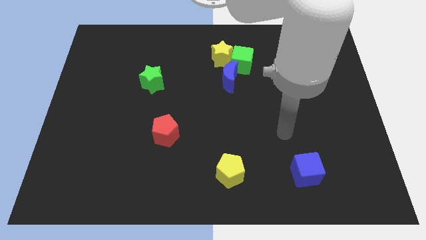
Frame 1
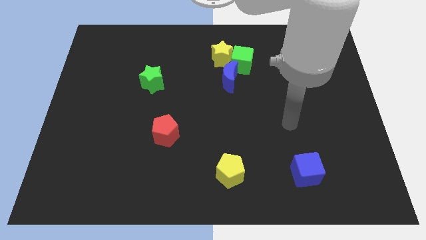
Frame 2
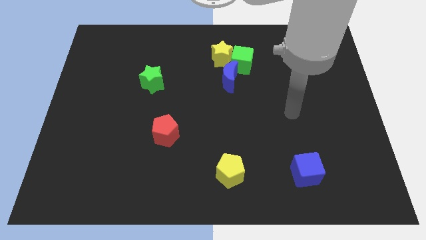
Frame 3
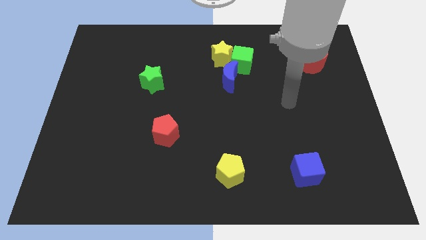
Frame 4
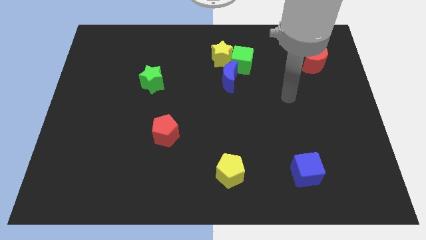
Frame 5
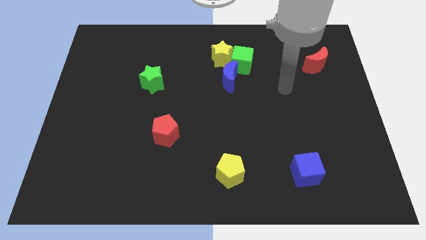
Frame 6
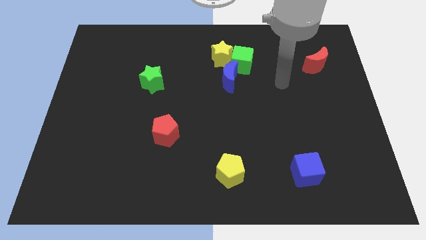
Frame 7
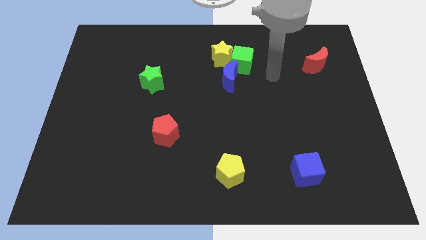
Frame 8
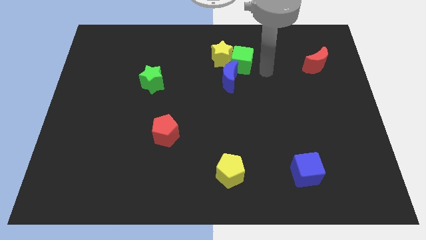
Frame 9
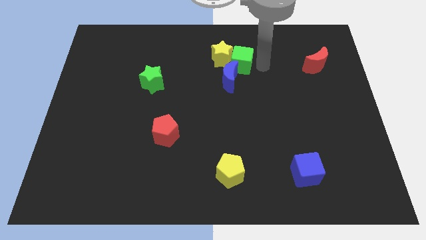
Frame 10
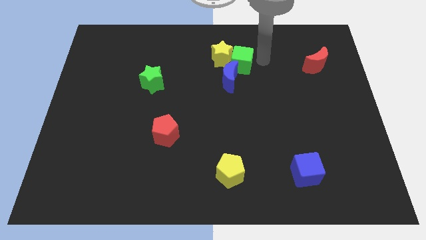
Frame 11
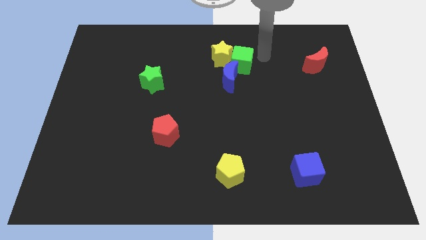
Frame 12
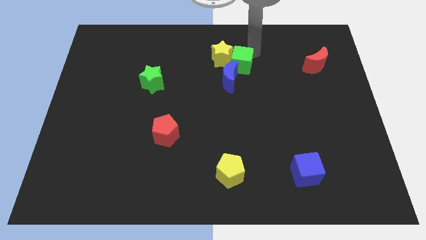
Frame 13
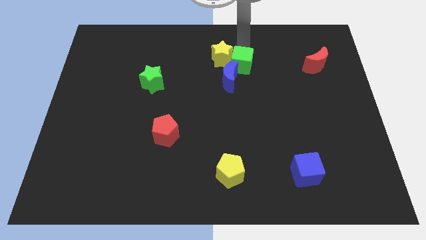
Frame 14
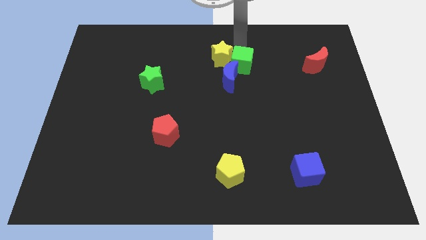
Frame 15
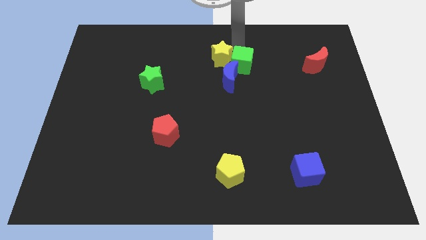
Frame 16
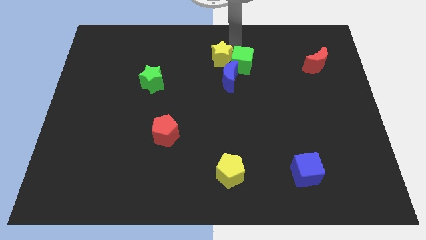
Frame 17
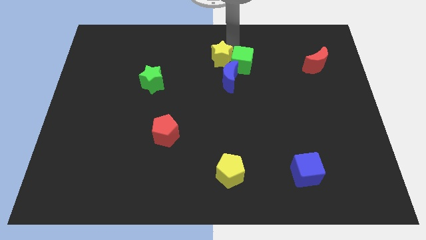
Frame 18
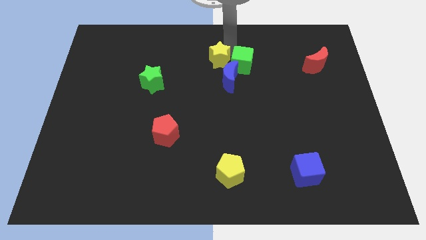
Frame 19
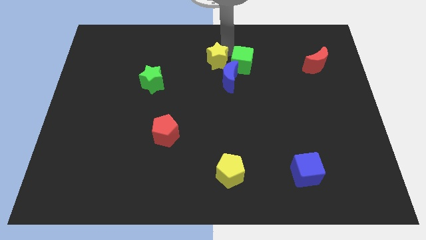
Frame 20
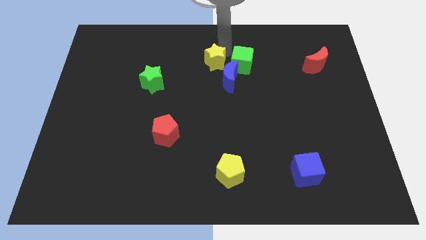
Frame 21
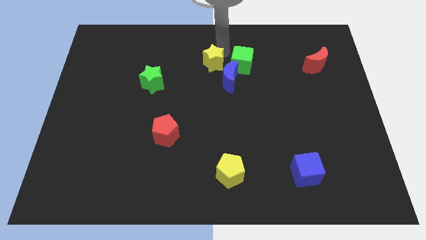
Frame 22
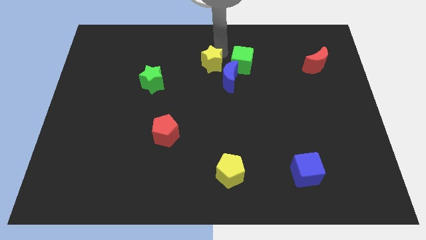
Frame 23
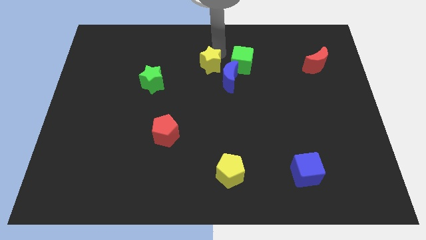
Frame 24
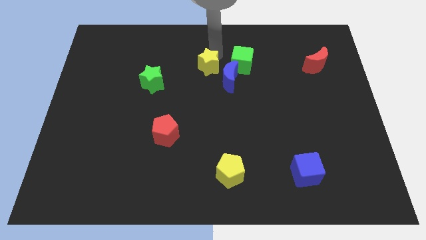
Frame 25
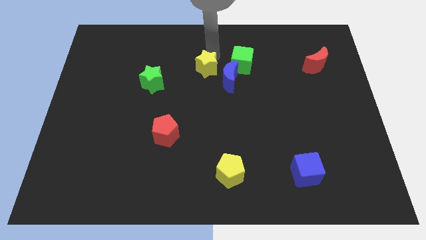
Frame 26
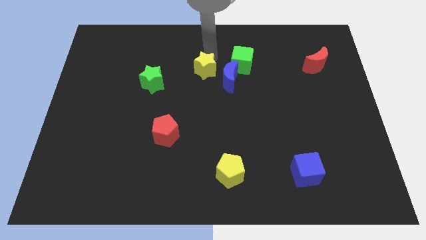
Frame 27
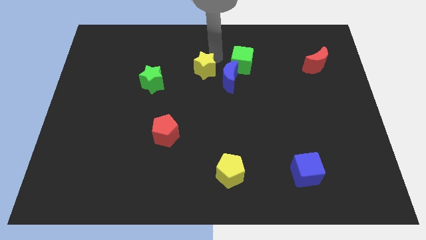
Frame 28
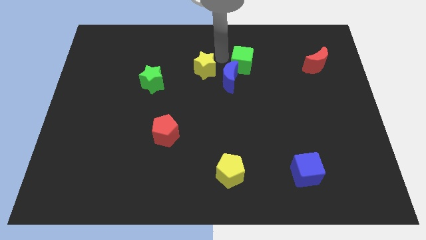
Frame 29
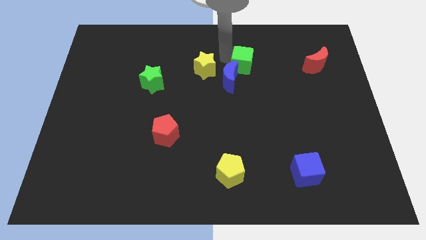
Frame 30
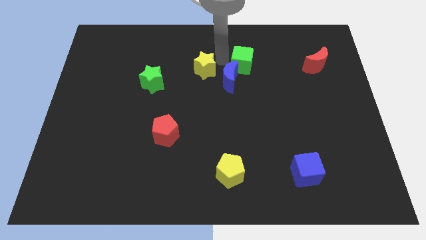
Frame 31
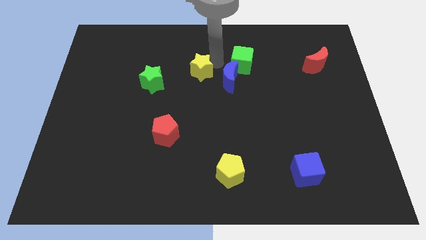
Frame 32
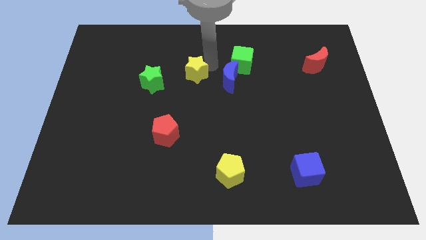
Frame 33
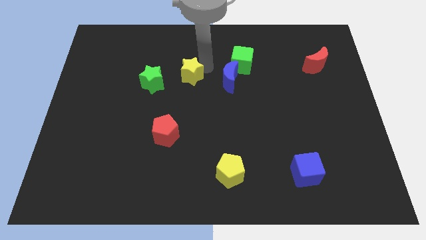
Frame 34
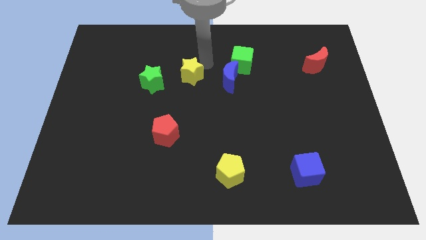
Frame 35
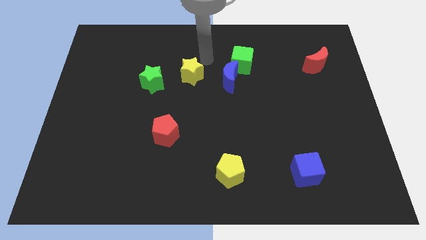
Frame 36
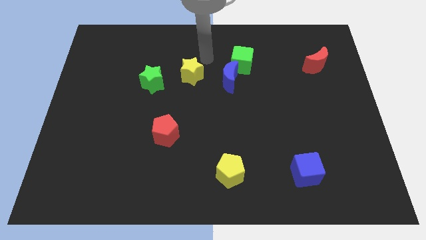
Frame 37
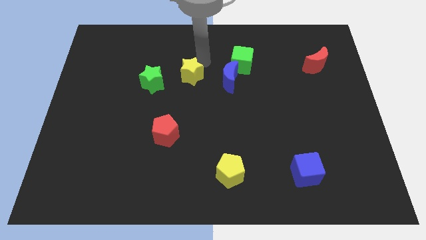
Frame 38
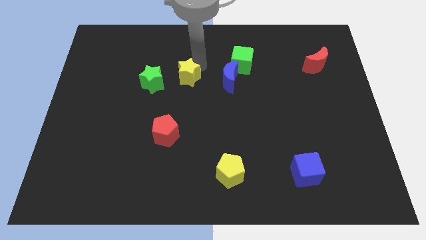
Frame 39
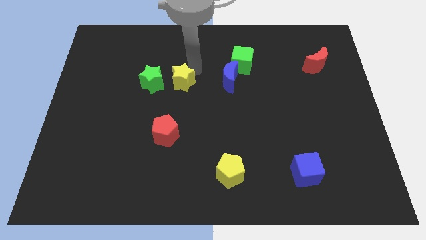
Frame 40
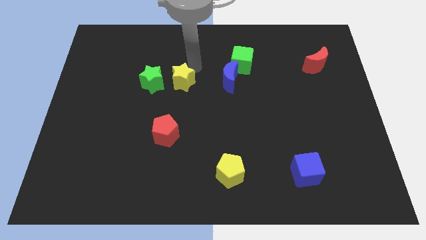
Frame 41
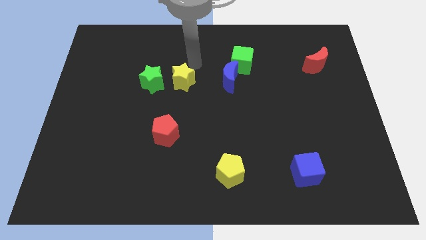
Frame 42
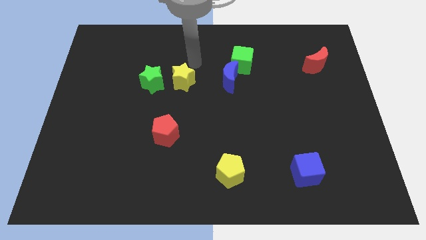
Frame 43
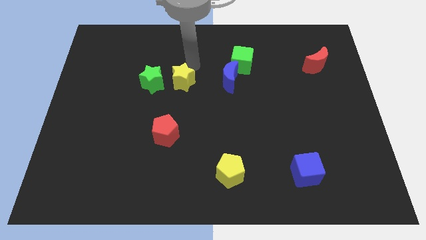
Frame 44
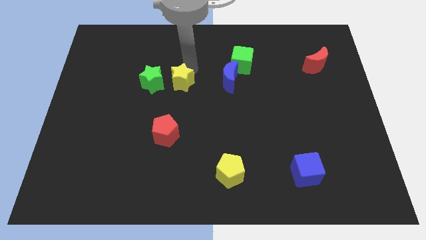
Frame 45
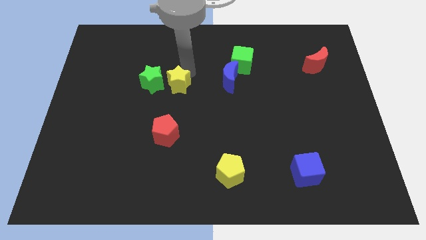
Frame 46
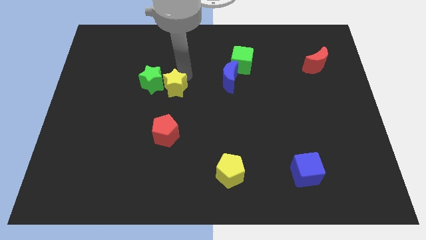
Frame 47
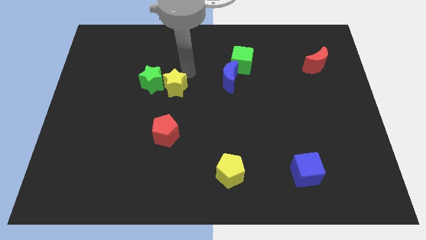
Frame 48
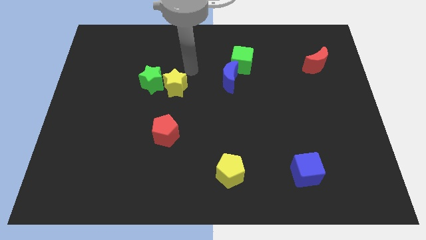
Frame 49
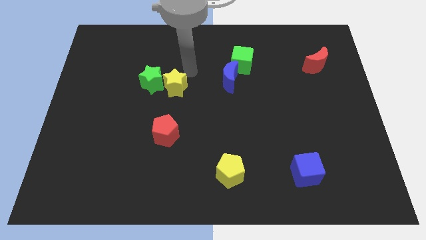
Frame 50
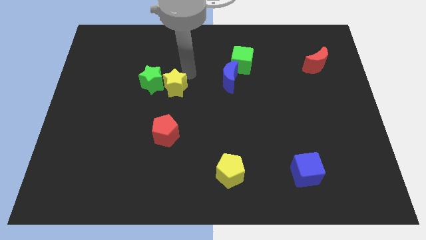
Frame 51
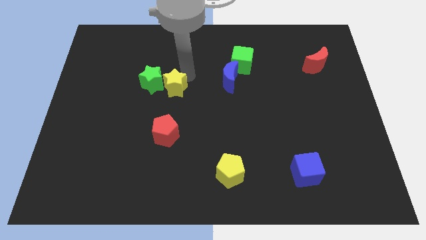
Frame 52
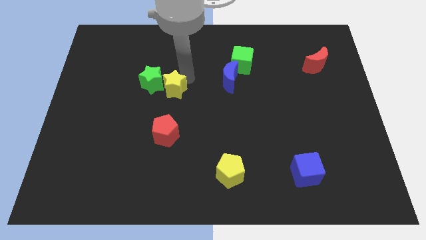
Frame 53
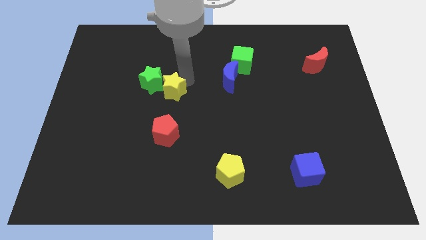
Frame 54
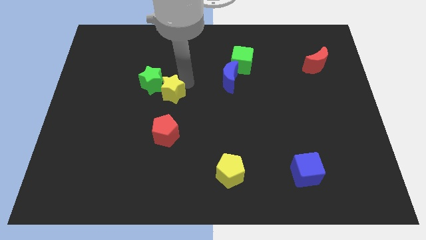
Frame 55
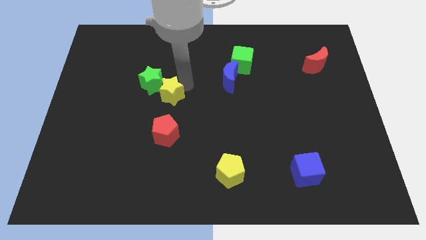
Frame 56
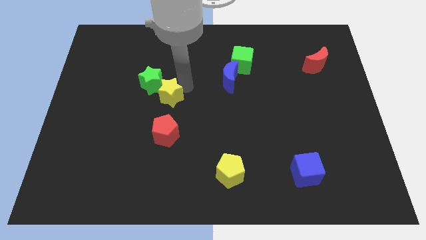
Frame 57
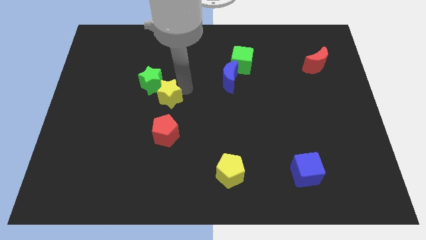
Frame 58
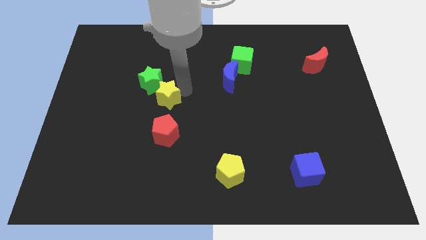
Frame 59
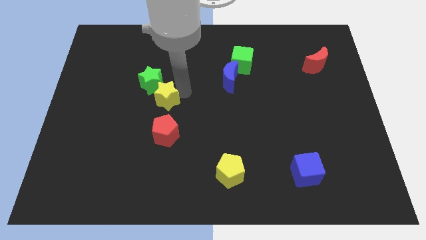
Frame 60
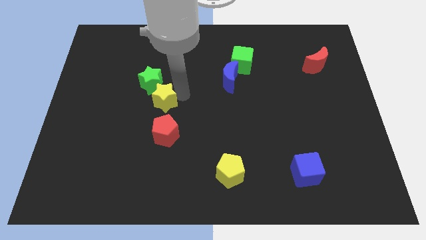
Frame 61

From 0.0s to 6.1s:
slide the yellow star down and to the left

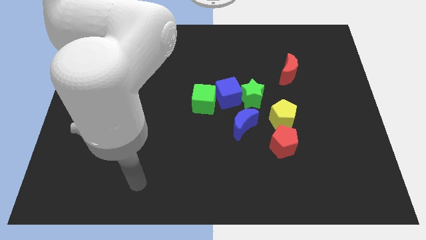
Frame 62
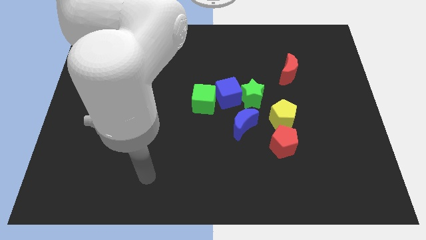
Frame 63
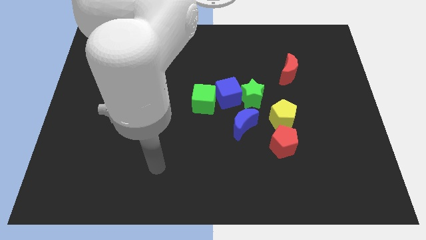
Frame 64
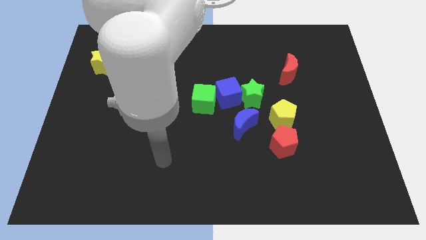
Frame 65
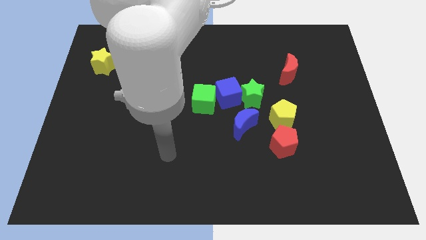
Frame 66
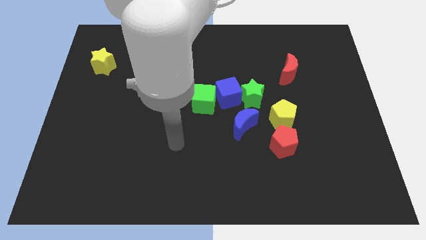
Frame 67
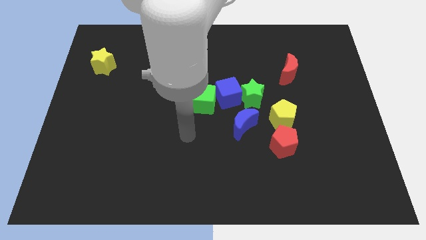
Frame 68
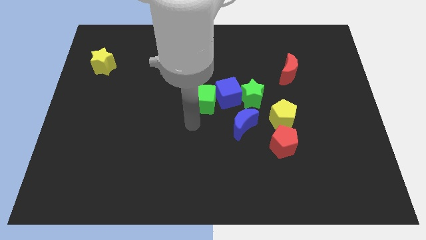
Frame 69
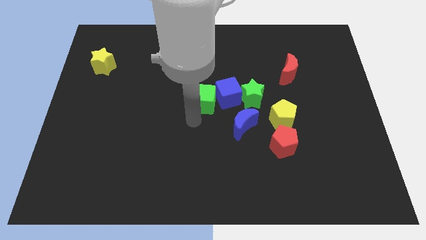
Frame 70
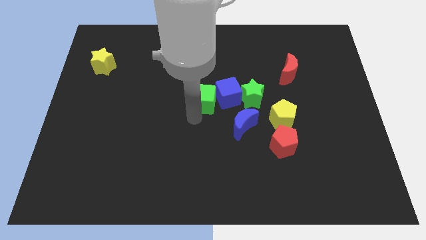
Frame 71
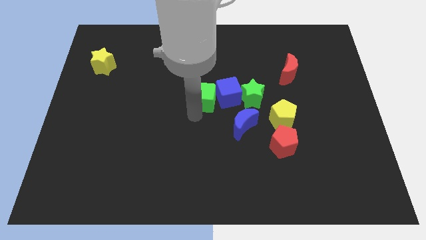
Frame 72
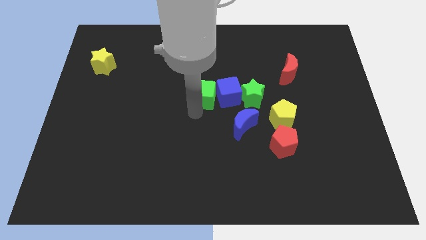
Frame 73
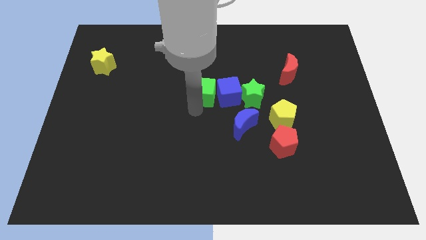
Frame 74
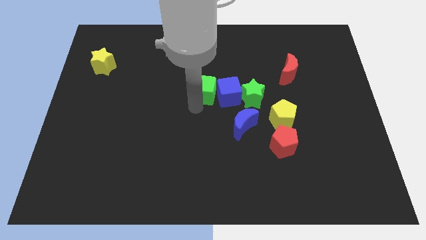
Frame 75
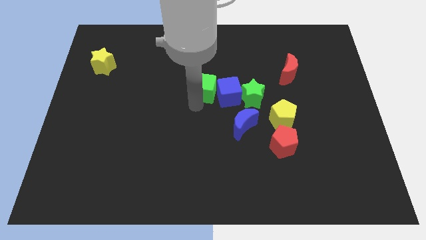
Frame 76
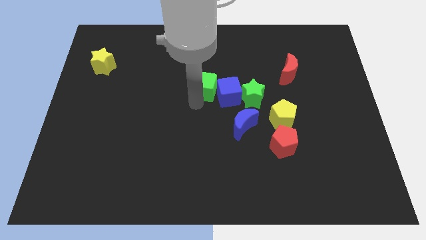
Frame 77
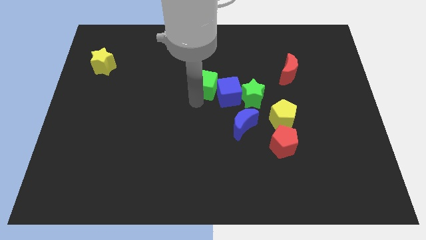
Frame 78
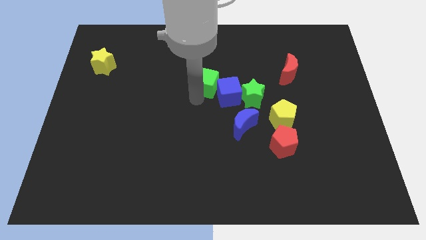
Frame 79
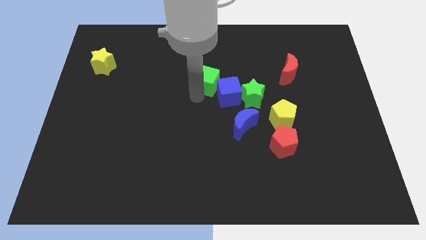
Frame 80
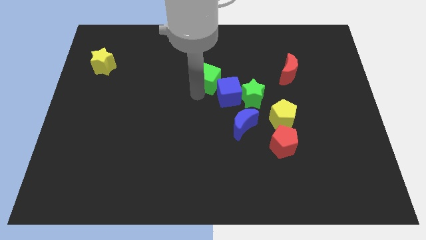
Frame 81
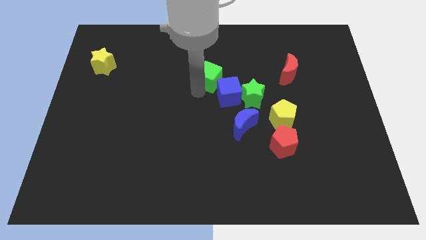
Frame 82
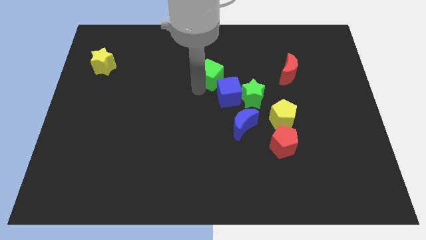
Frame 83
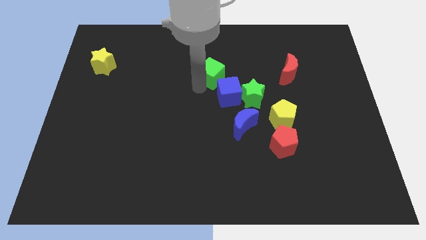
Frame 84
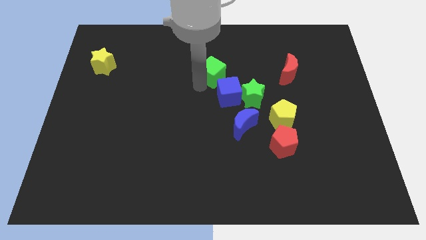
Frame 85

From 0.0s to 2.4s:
slightly slide the green cube diagonally up and right
